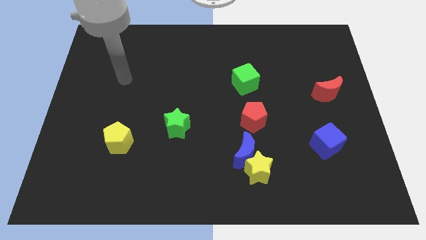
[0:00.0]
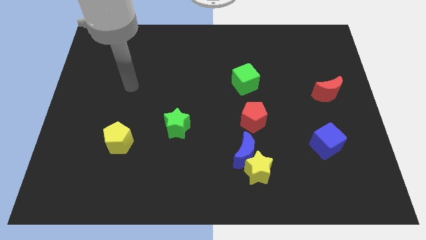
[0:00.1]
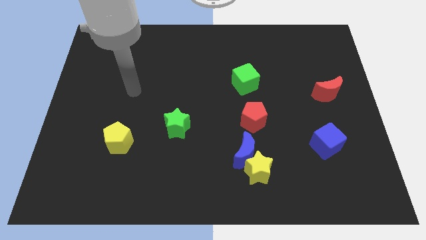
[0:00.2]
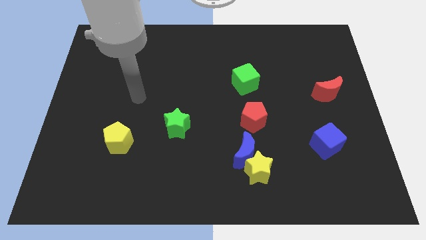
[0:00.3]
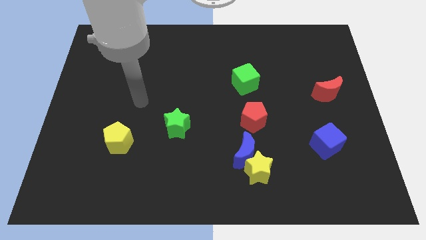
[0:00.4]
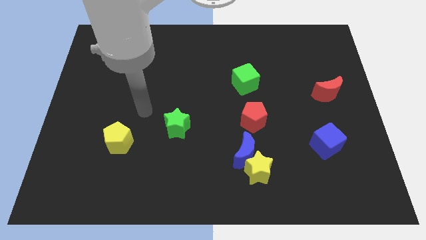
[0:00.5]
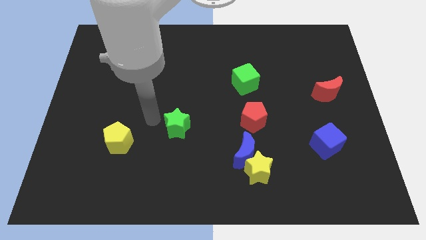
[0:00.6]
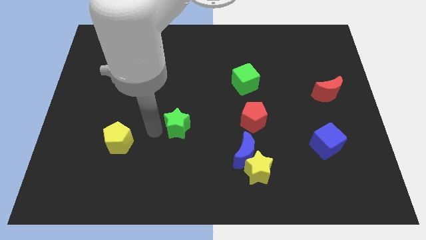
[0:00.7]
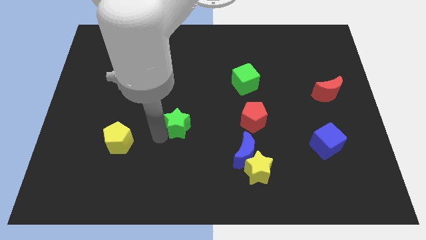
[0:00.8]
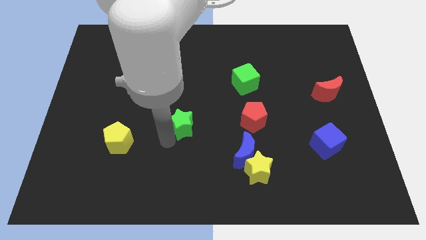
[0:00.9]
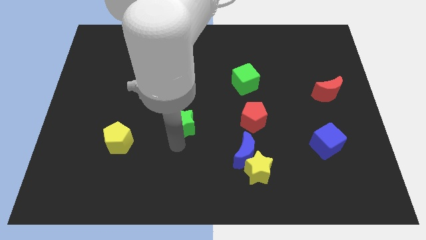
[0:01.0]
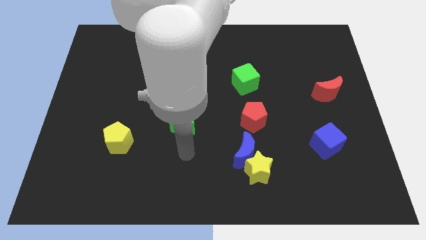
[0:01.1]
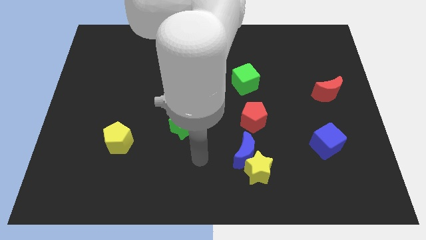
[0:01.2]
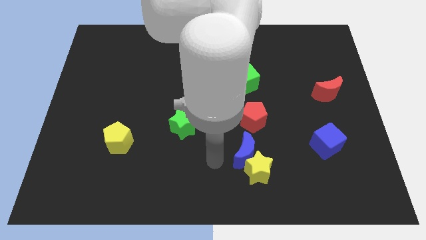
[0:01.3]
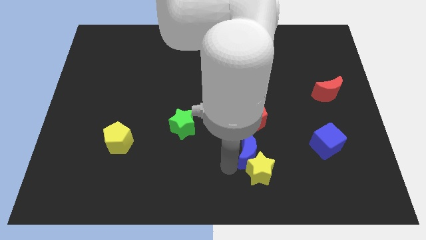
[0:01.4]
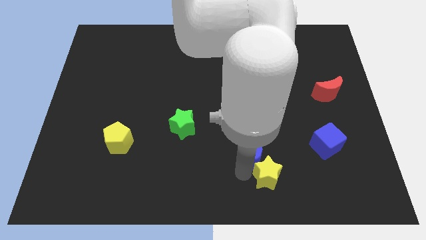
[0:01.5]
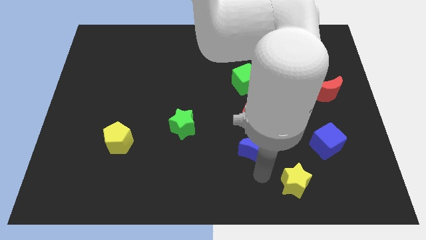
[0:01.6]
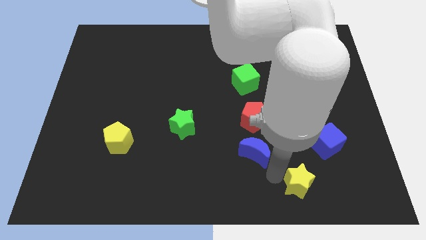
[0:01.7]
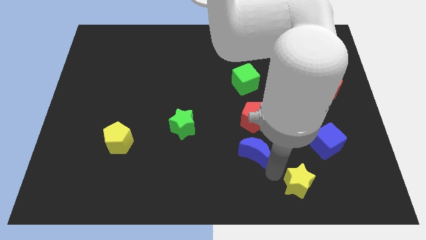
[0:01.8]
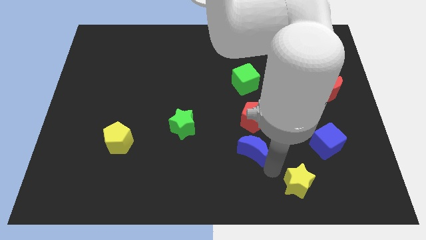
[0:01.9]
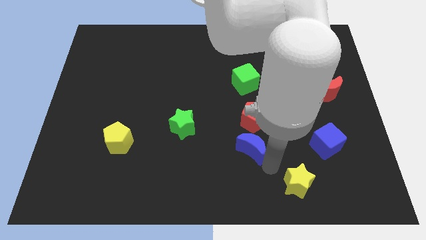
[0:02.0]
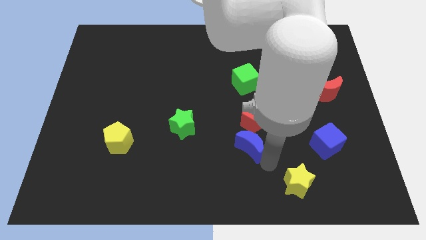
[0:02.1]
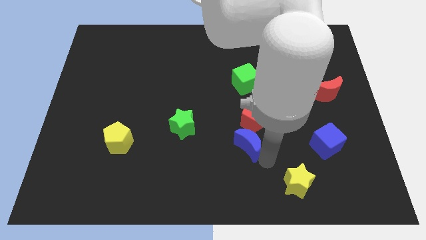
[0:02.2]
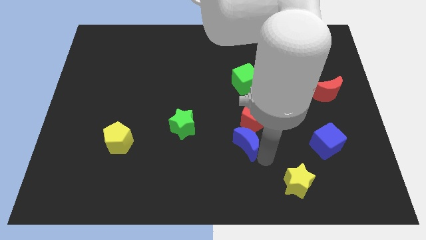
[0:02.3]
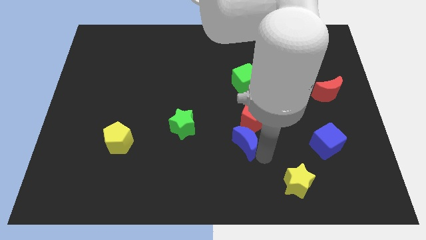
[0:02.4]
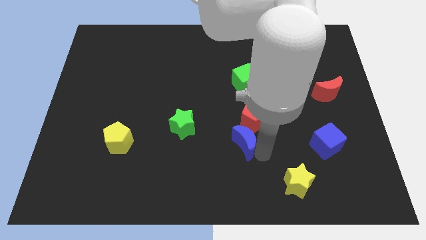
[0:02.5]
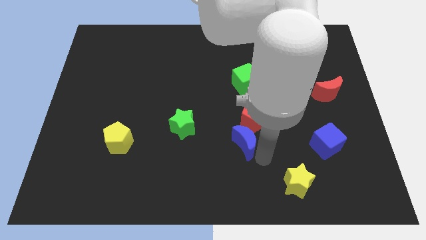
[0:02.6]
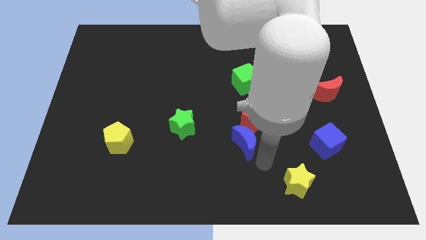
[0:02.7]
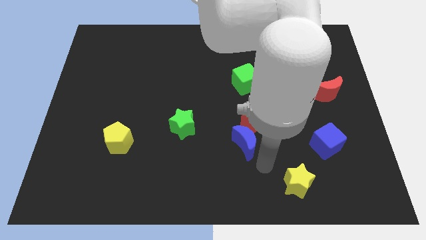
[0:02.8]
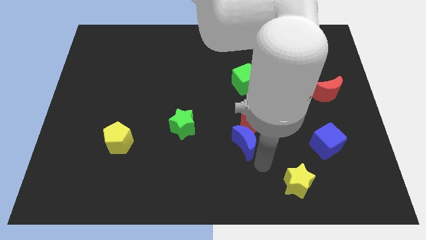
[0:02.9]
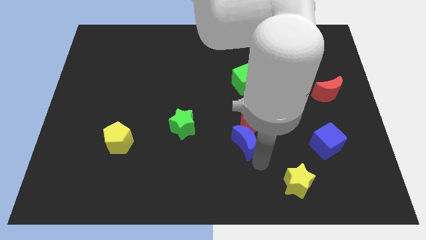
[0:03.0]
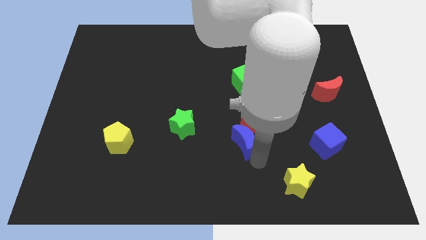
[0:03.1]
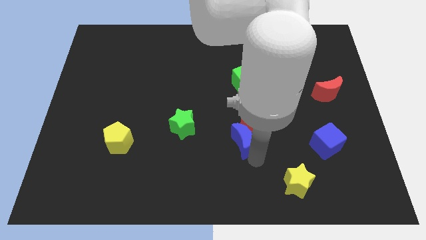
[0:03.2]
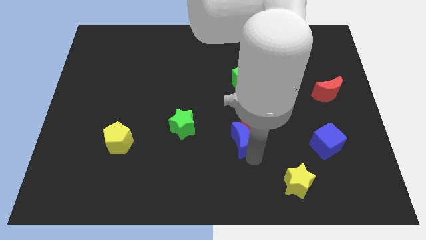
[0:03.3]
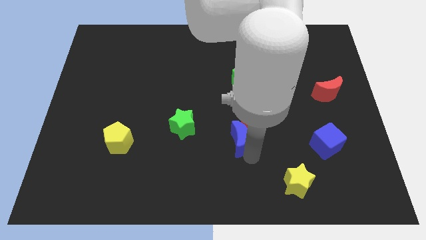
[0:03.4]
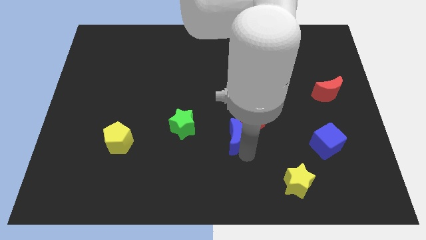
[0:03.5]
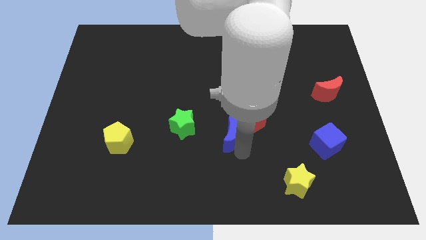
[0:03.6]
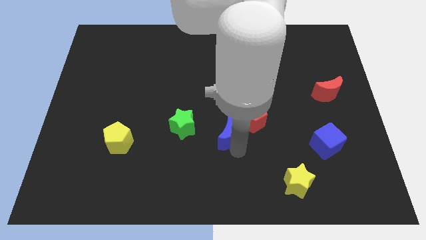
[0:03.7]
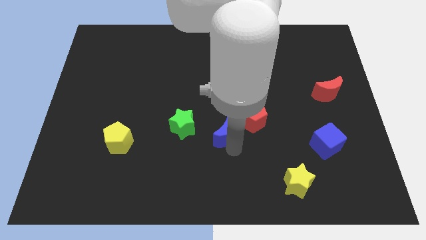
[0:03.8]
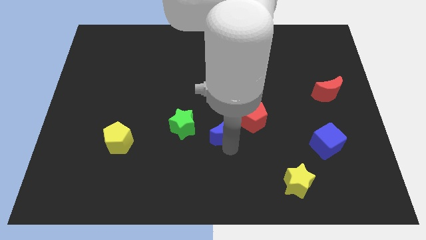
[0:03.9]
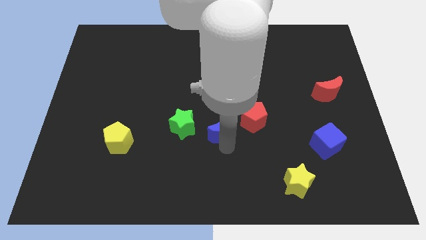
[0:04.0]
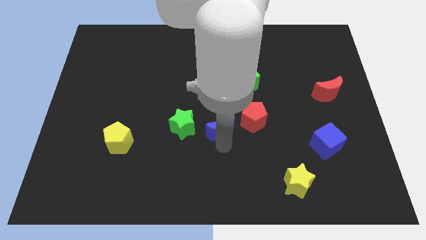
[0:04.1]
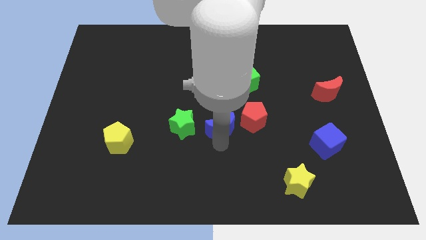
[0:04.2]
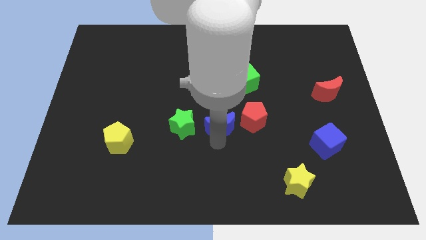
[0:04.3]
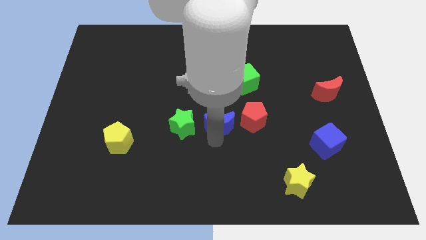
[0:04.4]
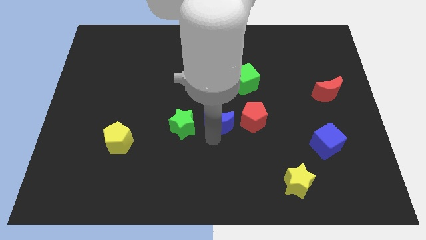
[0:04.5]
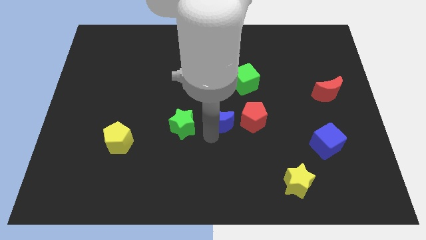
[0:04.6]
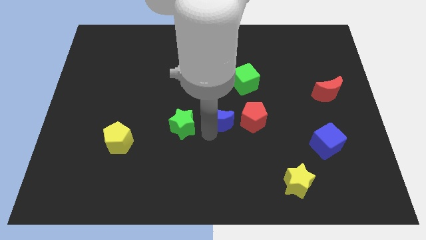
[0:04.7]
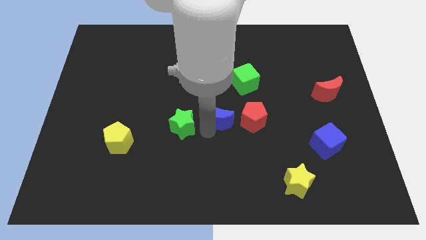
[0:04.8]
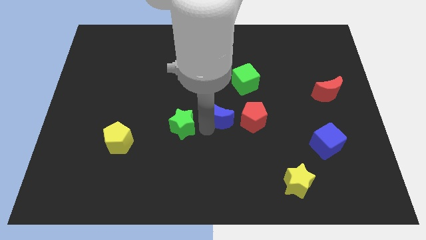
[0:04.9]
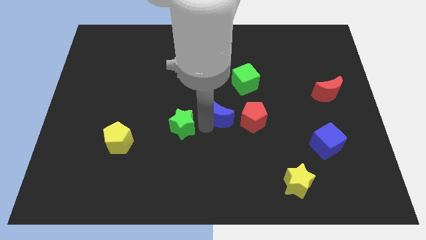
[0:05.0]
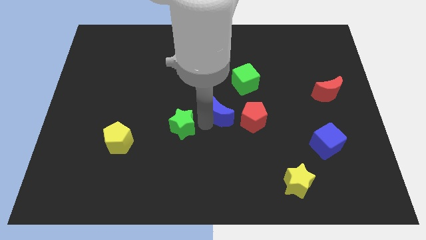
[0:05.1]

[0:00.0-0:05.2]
slide the blue moon to the top left side of the red pentagon
